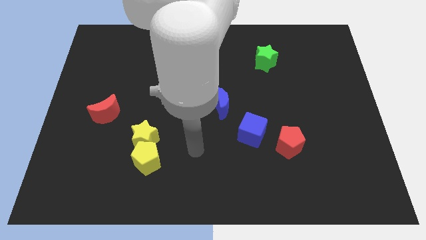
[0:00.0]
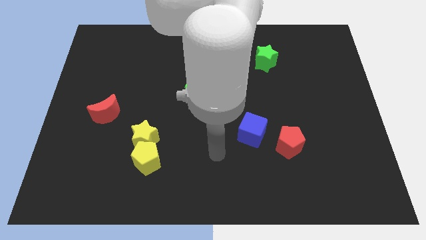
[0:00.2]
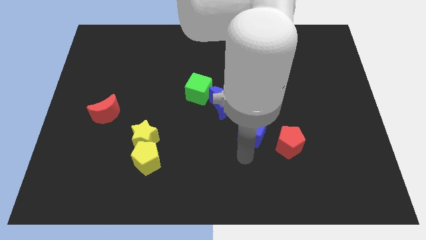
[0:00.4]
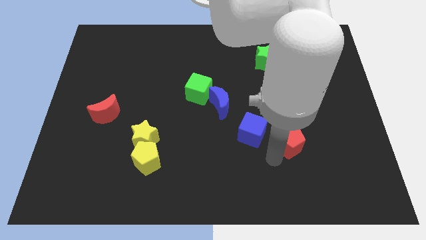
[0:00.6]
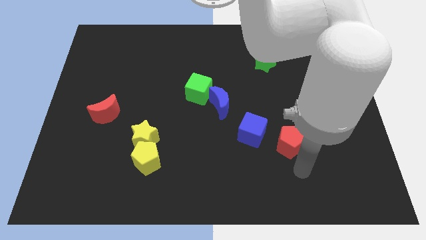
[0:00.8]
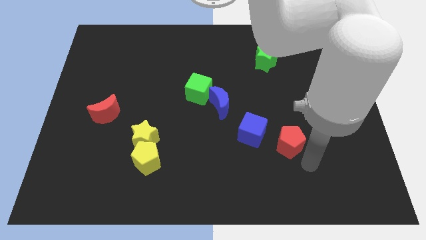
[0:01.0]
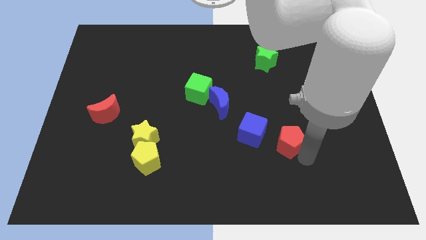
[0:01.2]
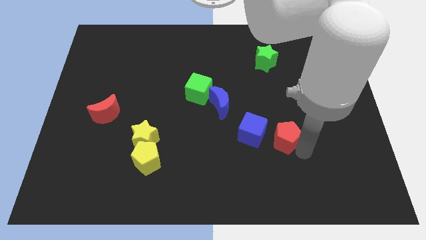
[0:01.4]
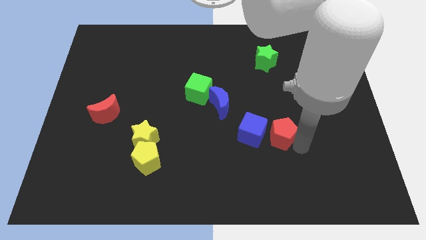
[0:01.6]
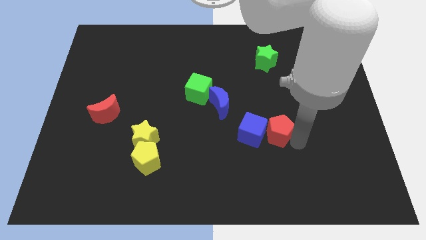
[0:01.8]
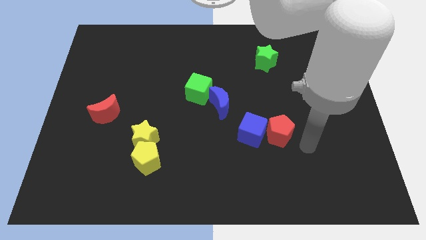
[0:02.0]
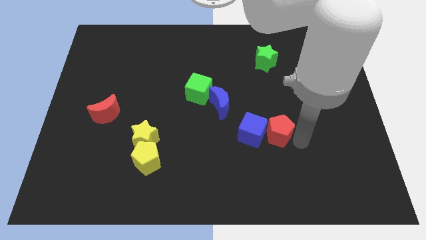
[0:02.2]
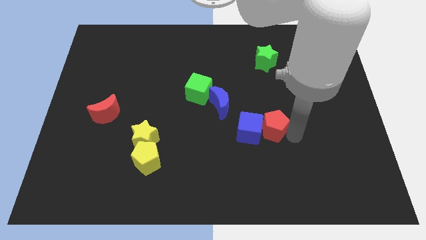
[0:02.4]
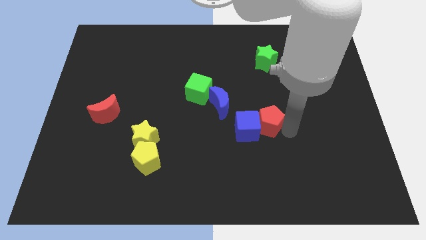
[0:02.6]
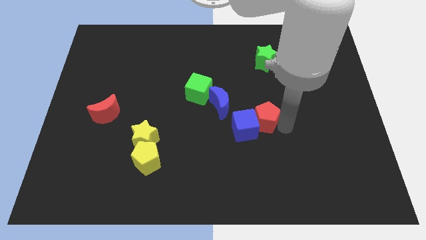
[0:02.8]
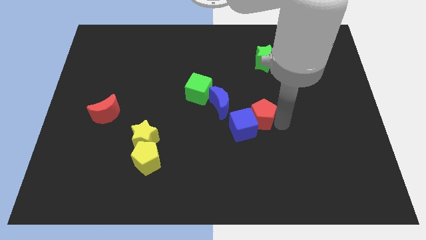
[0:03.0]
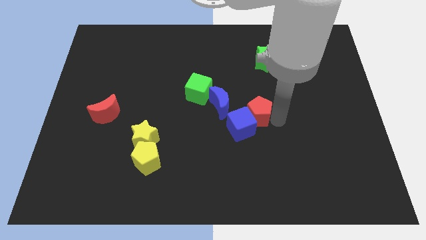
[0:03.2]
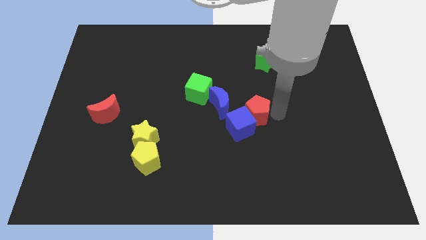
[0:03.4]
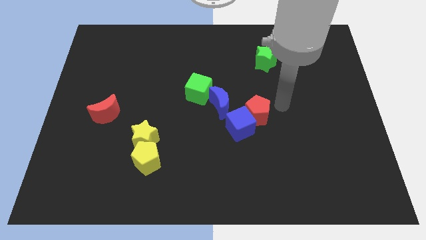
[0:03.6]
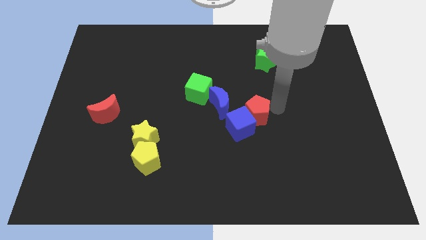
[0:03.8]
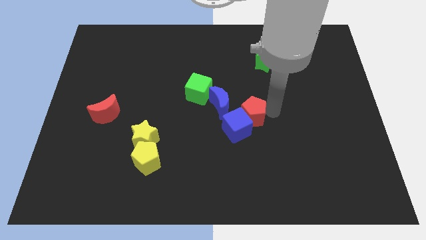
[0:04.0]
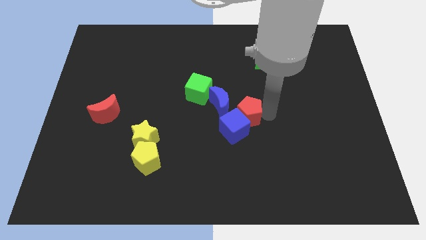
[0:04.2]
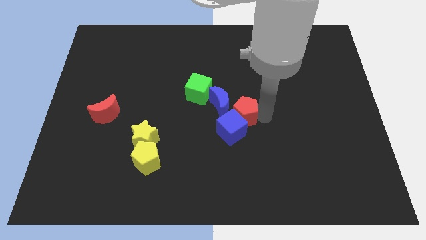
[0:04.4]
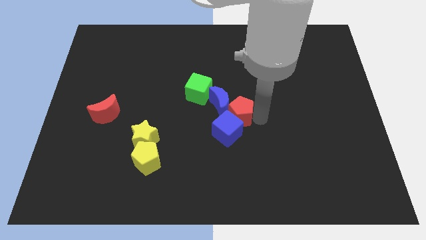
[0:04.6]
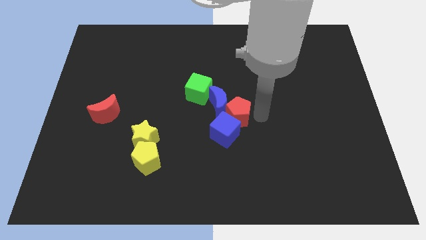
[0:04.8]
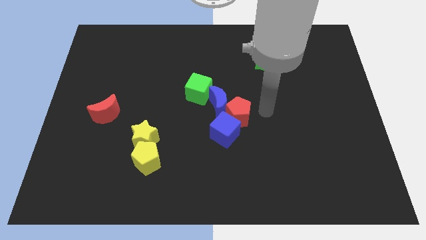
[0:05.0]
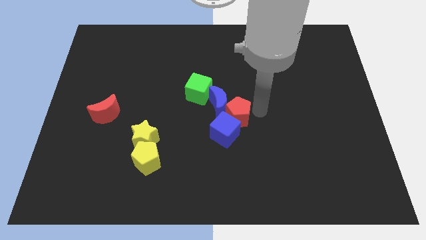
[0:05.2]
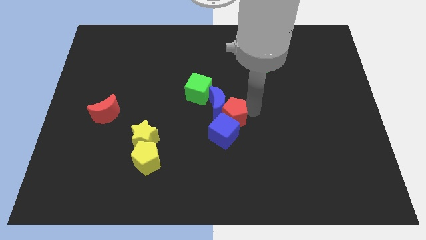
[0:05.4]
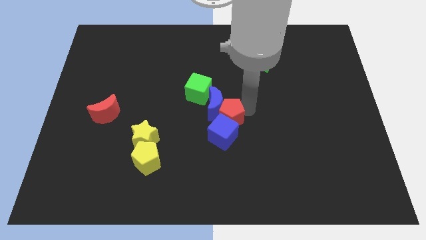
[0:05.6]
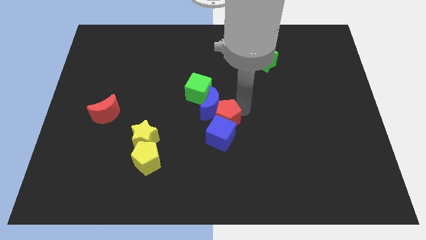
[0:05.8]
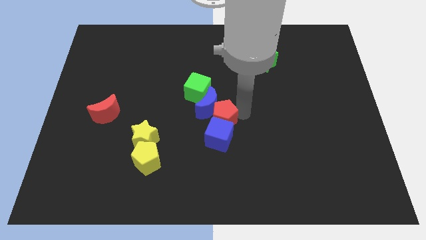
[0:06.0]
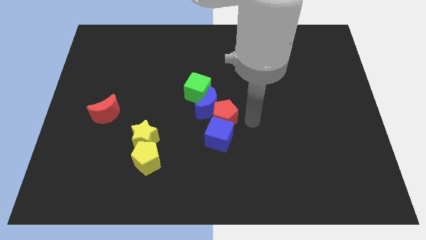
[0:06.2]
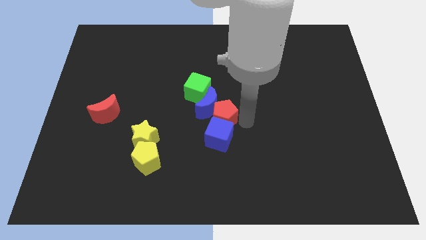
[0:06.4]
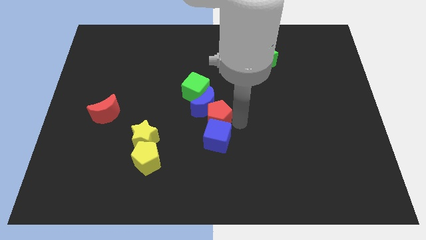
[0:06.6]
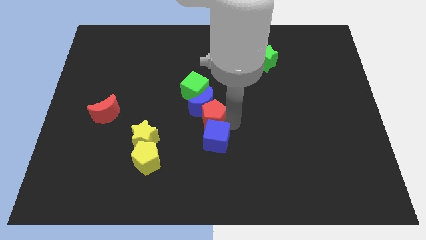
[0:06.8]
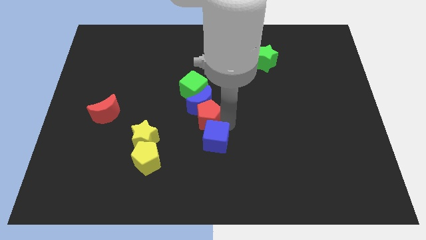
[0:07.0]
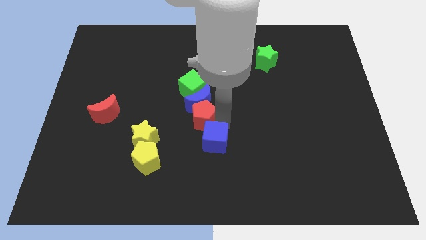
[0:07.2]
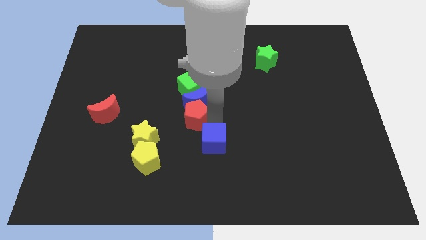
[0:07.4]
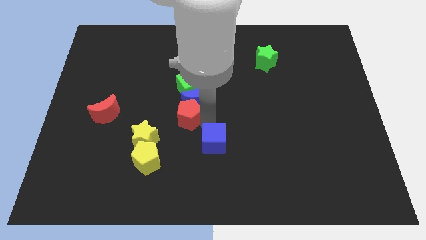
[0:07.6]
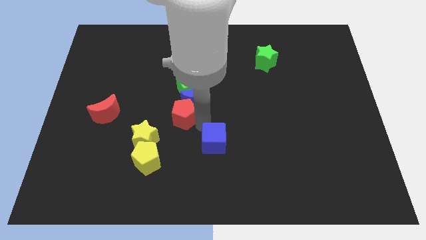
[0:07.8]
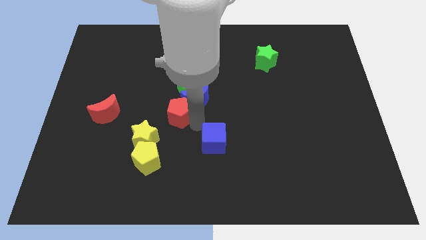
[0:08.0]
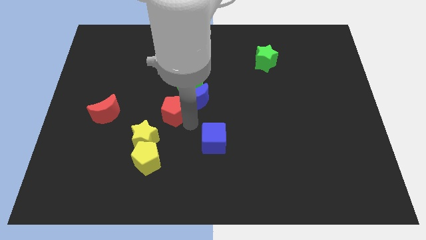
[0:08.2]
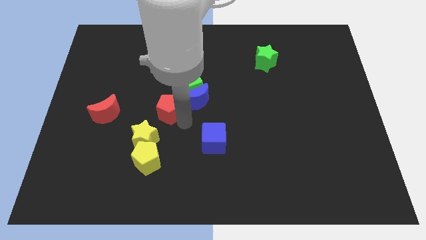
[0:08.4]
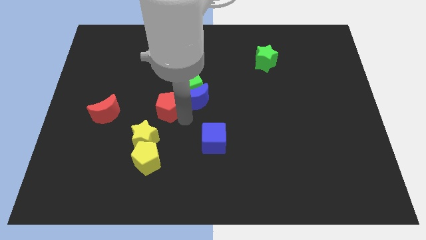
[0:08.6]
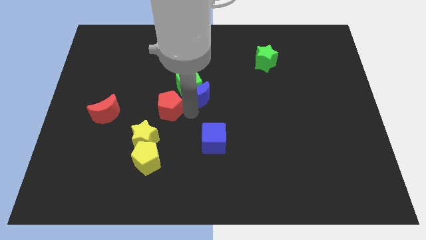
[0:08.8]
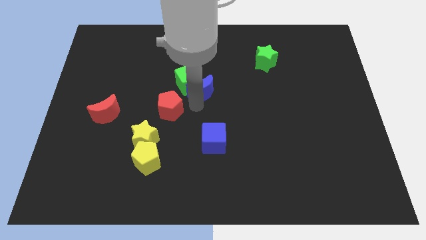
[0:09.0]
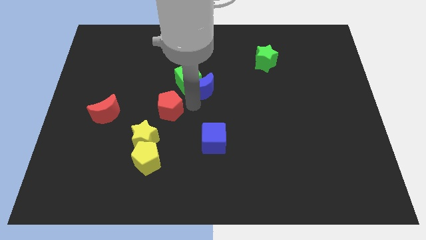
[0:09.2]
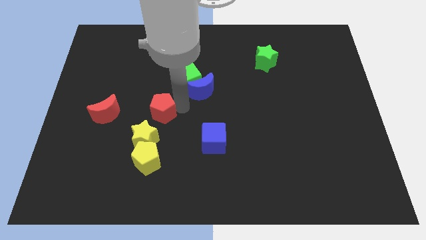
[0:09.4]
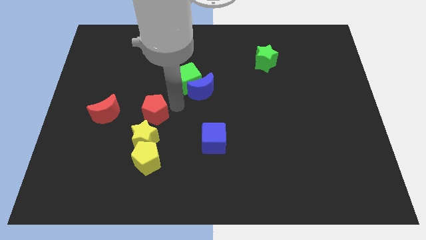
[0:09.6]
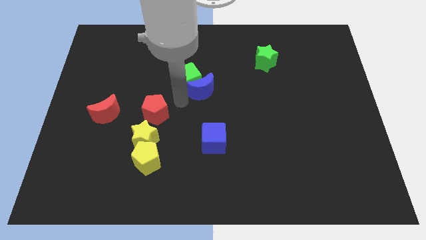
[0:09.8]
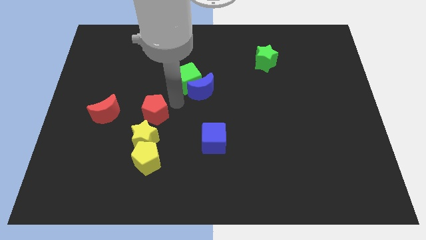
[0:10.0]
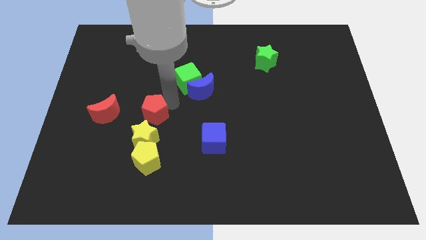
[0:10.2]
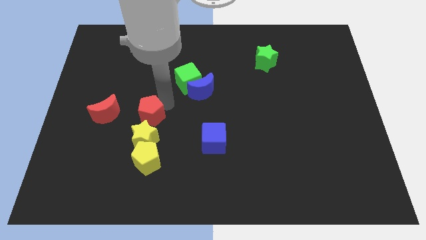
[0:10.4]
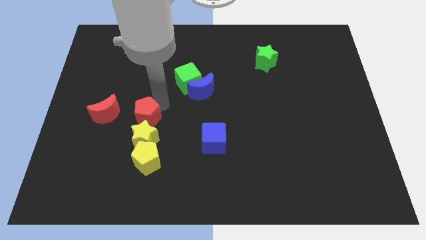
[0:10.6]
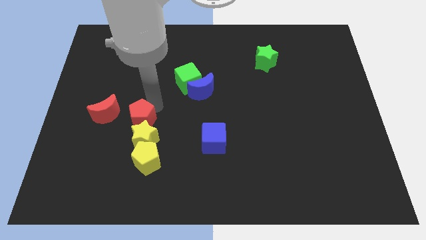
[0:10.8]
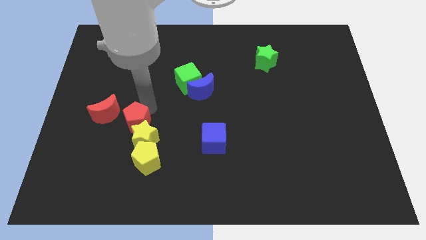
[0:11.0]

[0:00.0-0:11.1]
move the red pentagon to the top left side of the yellow pentagon

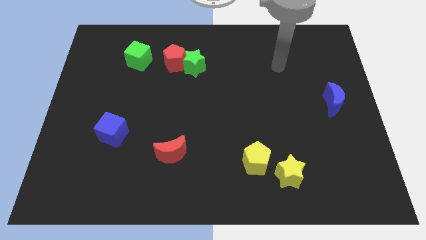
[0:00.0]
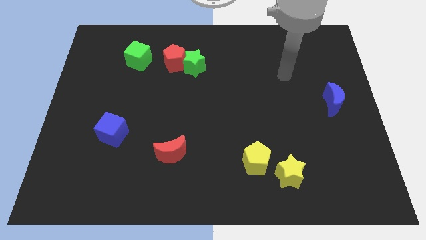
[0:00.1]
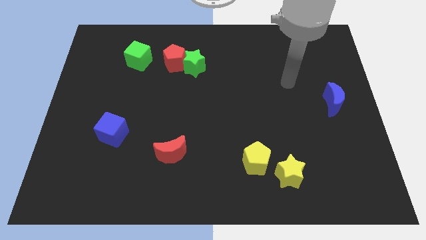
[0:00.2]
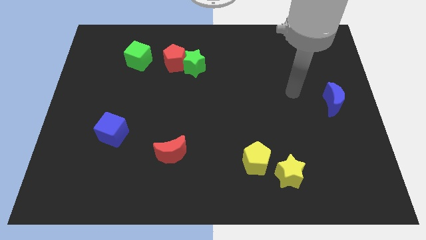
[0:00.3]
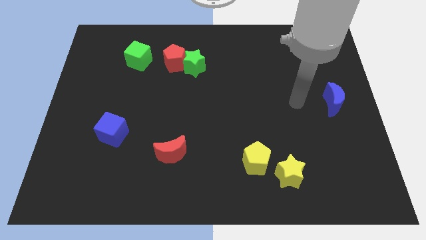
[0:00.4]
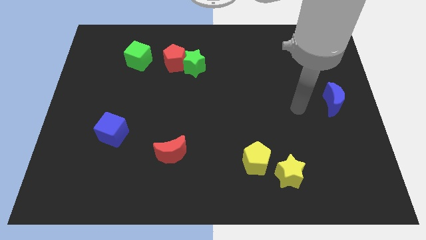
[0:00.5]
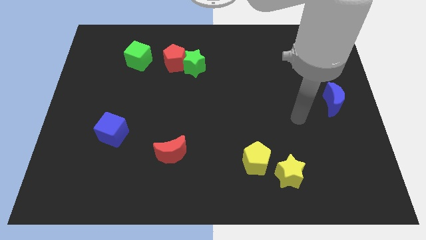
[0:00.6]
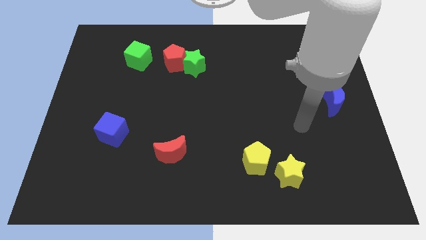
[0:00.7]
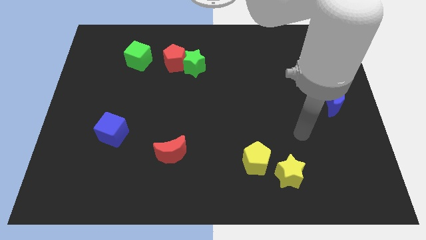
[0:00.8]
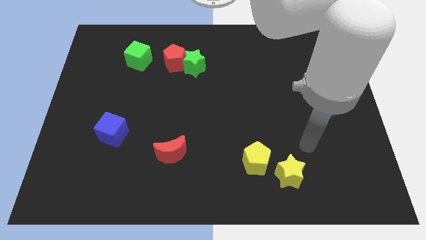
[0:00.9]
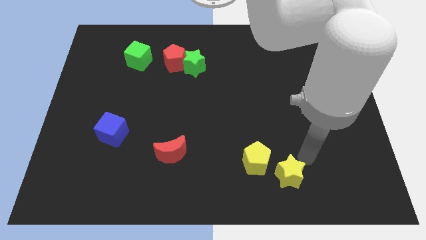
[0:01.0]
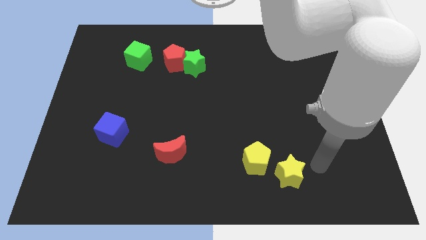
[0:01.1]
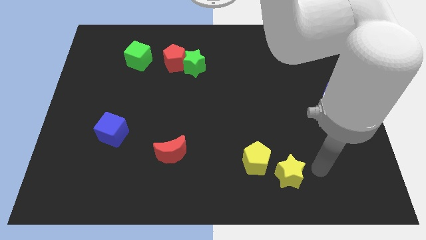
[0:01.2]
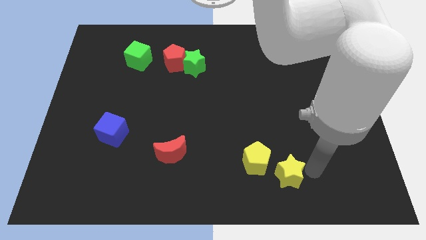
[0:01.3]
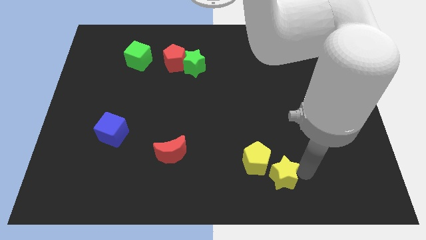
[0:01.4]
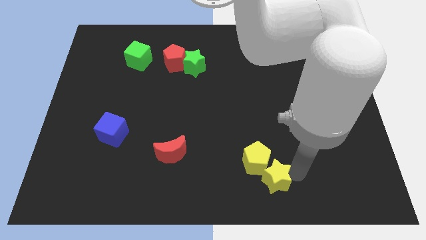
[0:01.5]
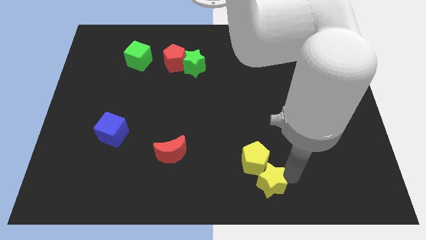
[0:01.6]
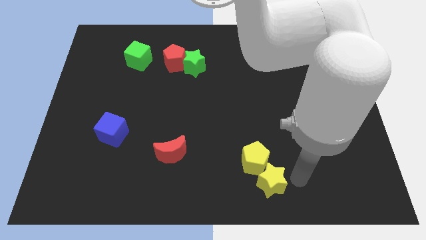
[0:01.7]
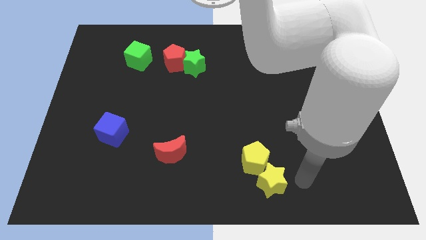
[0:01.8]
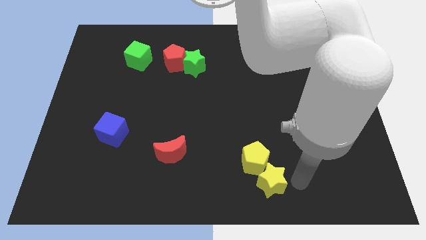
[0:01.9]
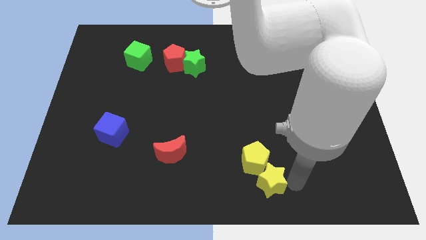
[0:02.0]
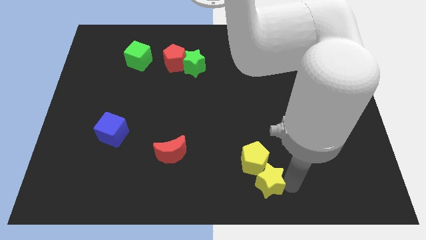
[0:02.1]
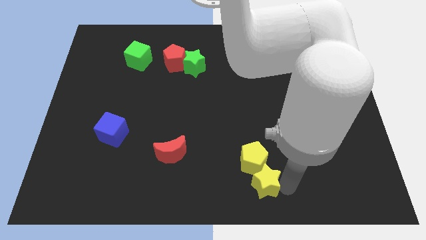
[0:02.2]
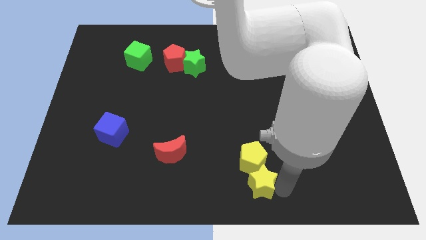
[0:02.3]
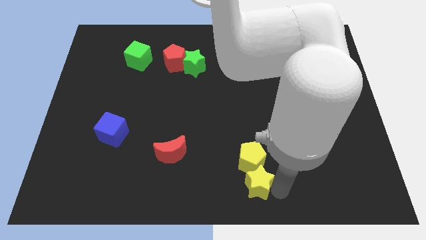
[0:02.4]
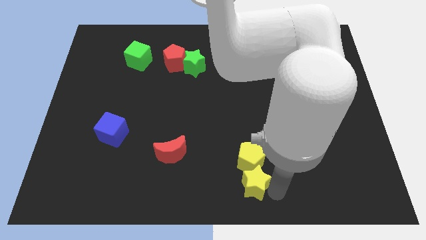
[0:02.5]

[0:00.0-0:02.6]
move the yellow star to the bottom left side of the yellow pentagon
